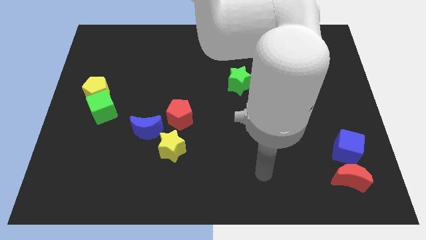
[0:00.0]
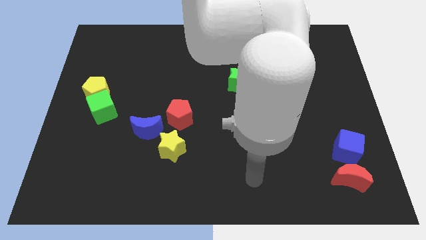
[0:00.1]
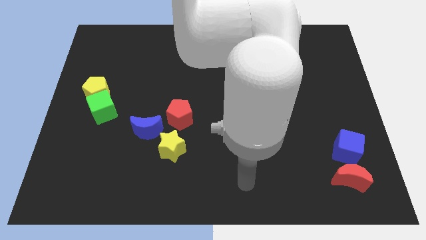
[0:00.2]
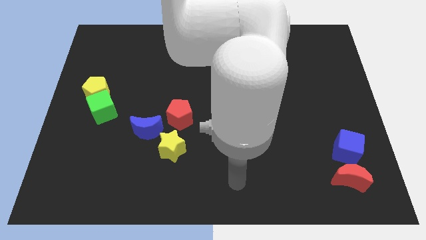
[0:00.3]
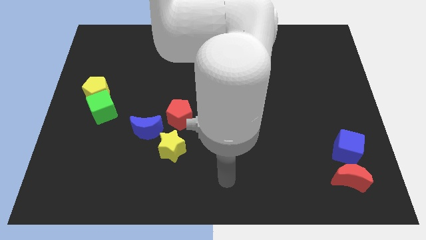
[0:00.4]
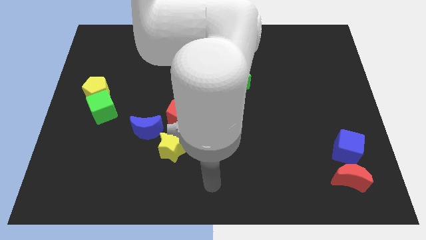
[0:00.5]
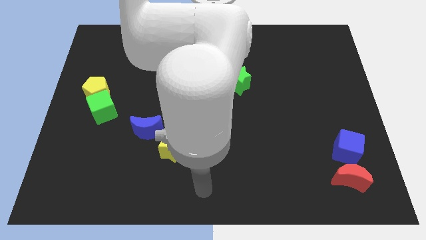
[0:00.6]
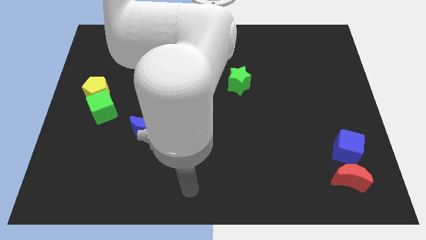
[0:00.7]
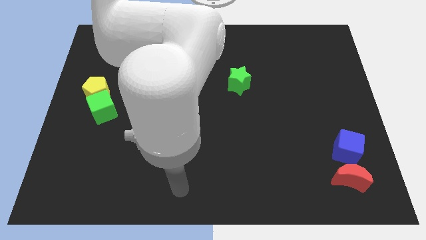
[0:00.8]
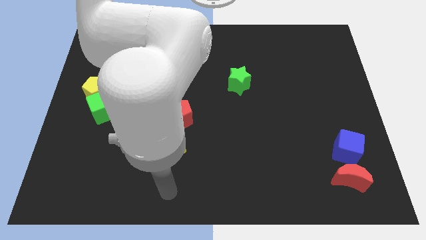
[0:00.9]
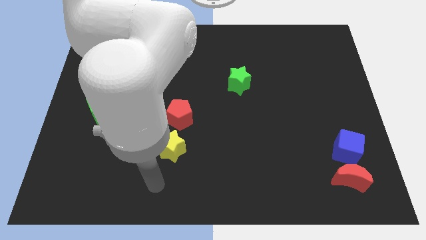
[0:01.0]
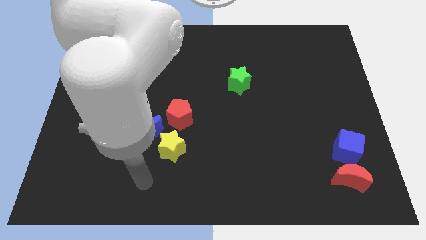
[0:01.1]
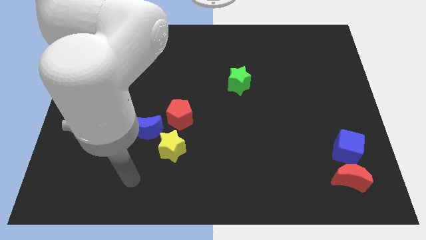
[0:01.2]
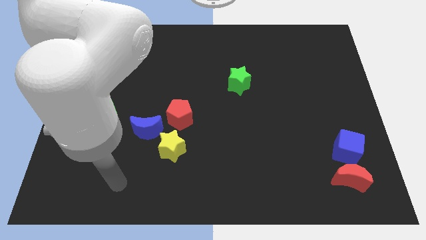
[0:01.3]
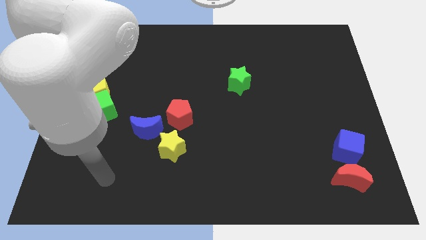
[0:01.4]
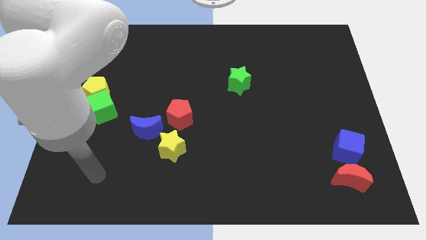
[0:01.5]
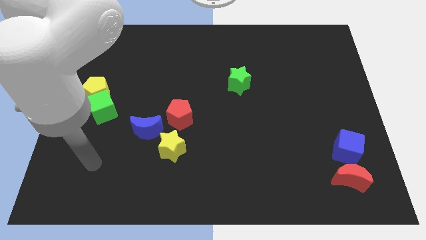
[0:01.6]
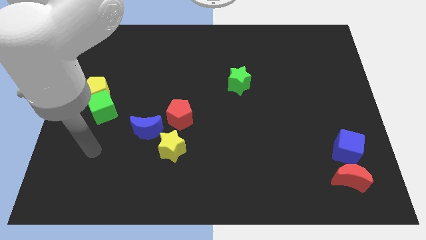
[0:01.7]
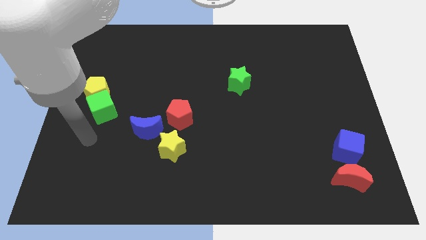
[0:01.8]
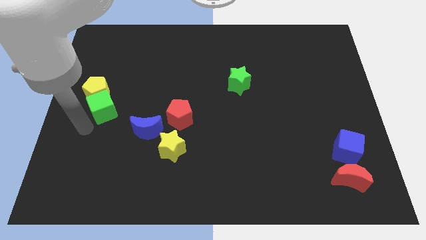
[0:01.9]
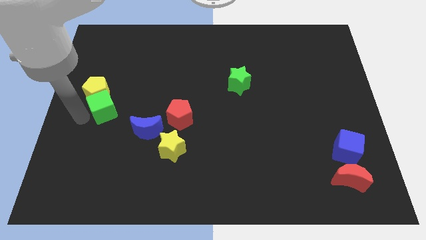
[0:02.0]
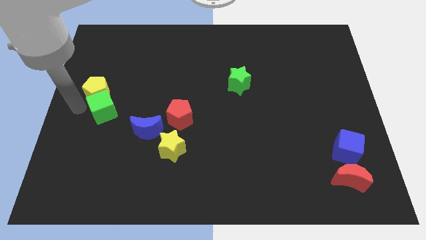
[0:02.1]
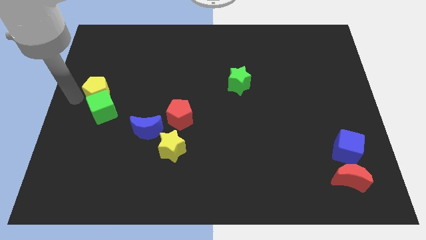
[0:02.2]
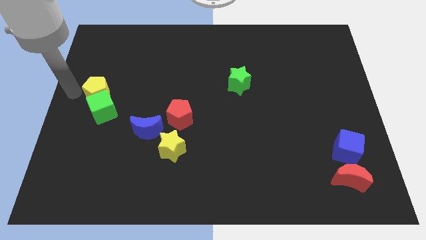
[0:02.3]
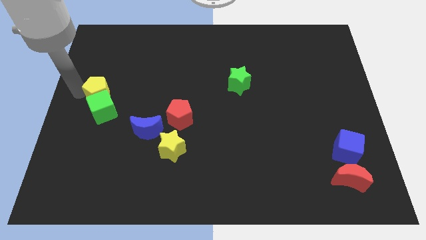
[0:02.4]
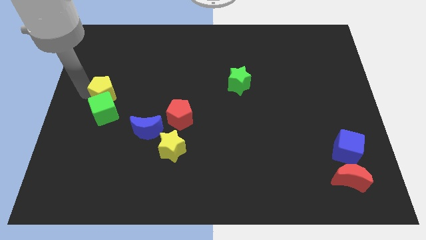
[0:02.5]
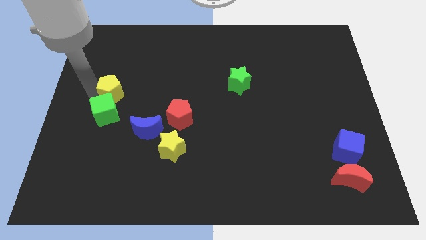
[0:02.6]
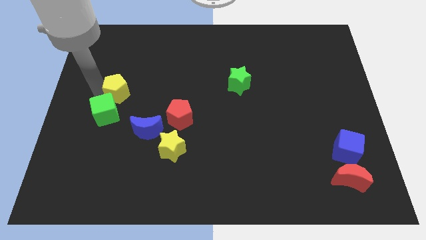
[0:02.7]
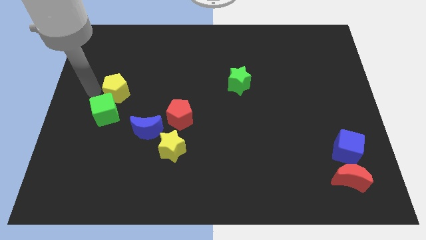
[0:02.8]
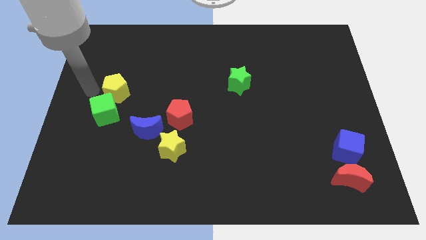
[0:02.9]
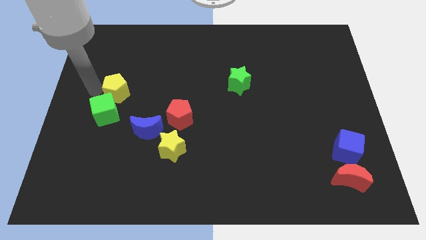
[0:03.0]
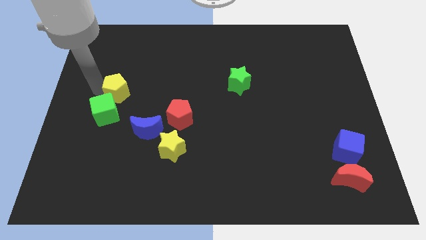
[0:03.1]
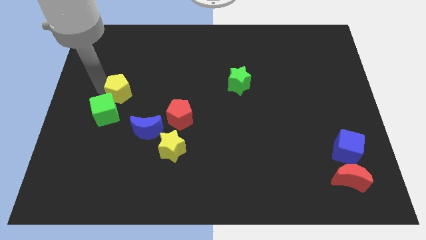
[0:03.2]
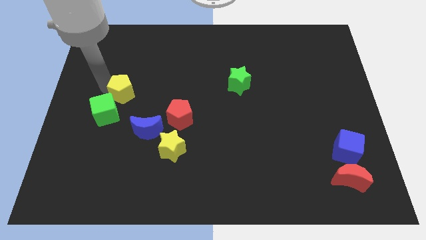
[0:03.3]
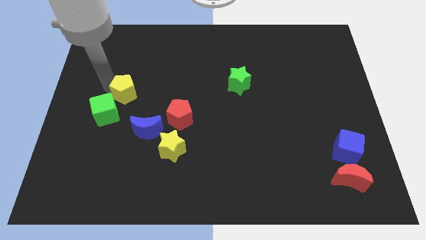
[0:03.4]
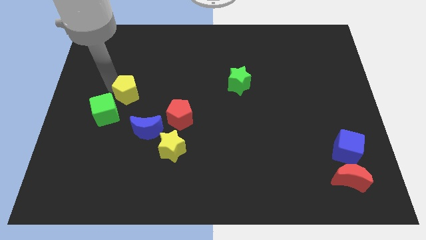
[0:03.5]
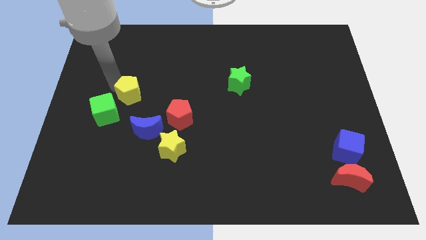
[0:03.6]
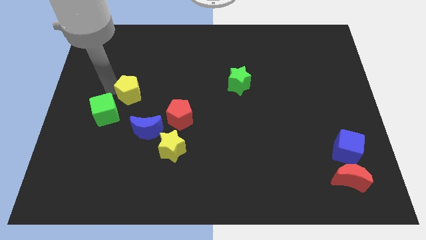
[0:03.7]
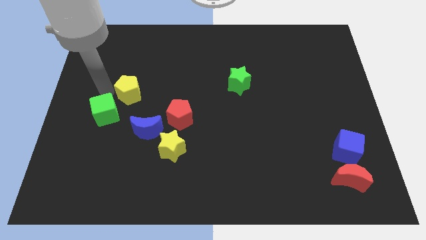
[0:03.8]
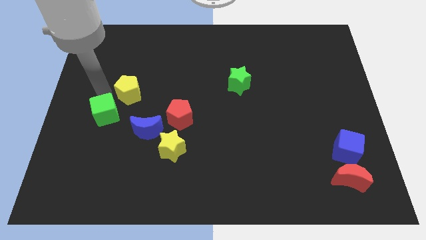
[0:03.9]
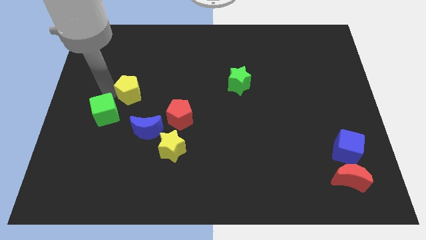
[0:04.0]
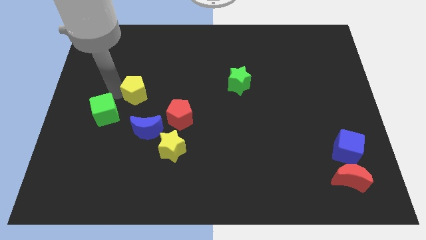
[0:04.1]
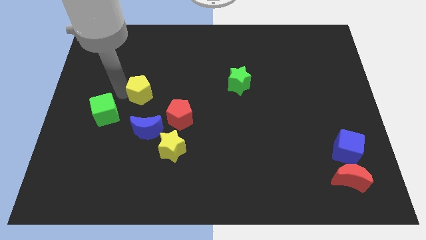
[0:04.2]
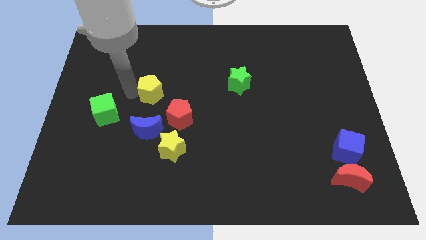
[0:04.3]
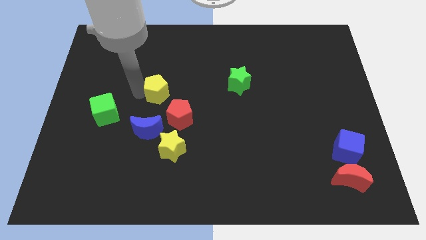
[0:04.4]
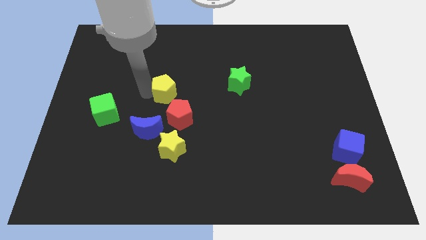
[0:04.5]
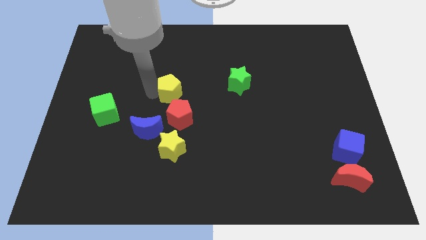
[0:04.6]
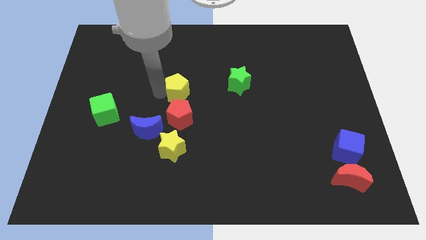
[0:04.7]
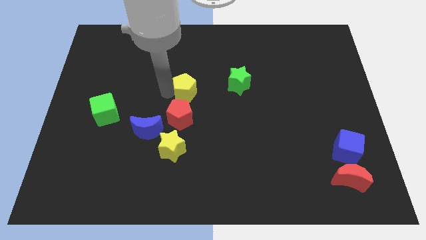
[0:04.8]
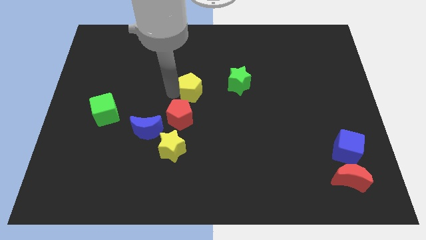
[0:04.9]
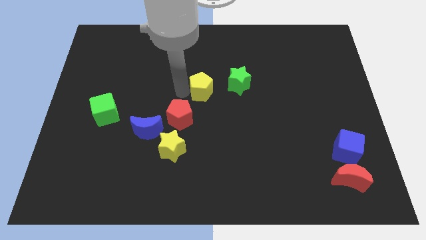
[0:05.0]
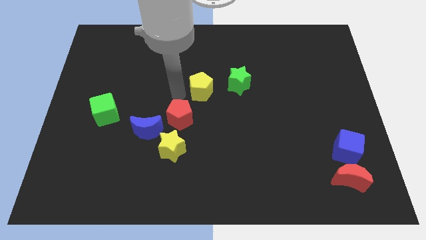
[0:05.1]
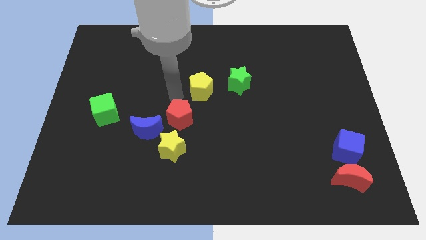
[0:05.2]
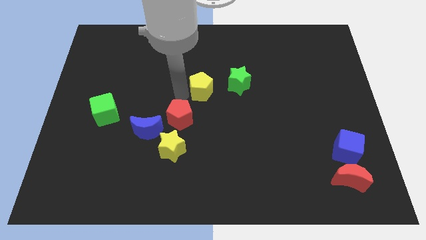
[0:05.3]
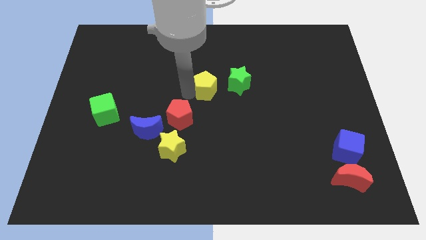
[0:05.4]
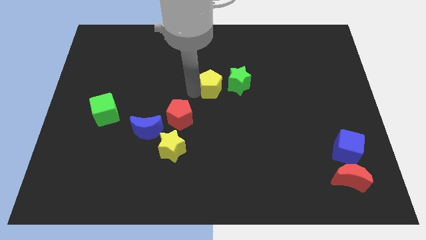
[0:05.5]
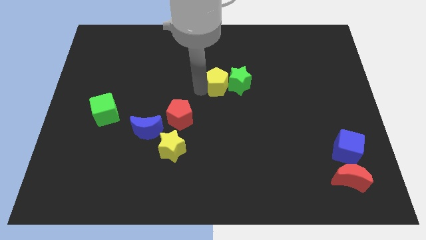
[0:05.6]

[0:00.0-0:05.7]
push the yellow pentagon towards the green star

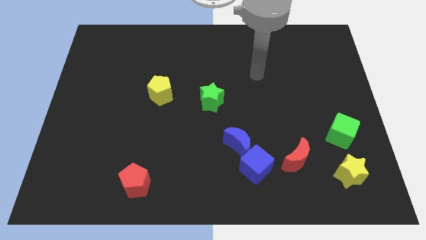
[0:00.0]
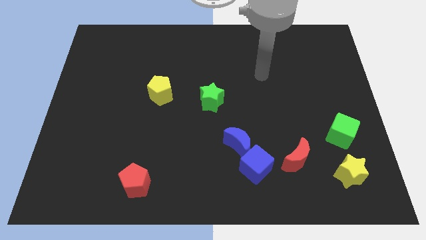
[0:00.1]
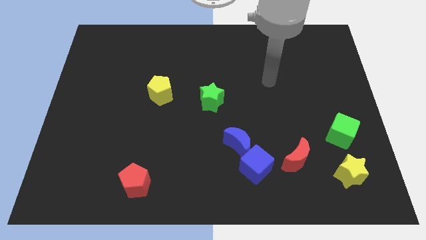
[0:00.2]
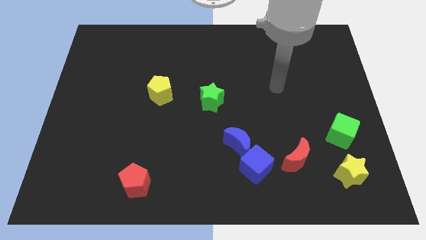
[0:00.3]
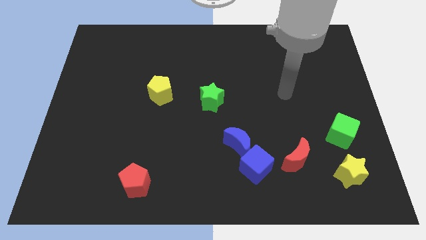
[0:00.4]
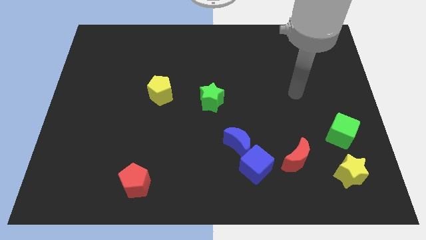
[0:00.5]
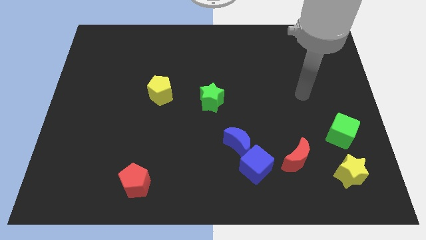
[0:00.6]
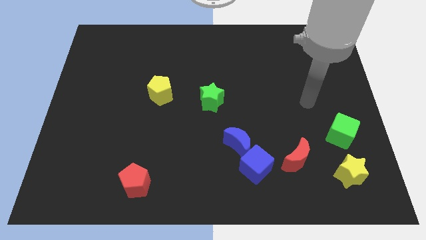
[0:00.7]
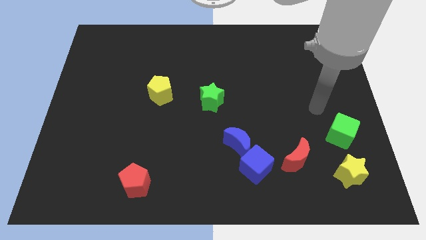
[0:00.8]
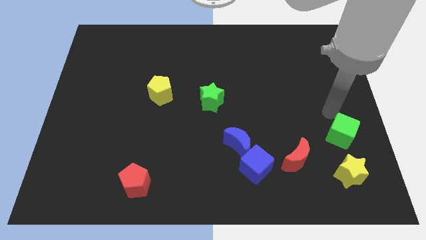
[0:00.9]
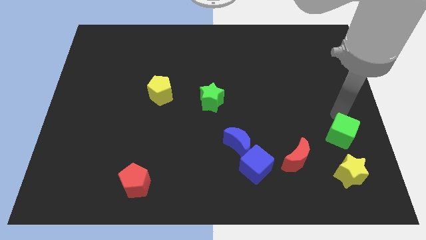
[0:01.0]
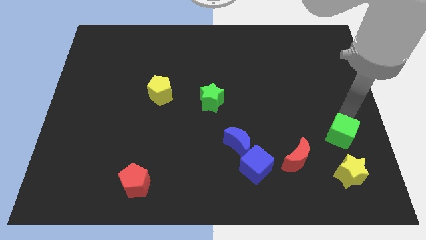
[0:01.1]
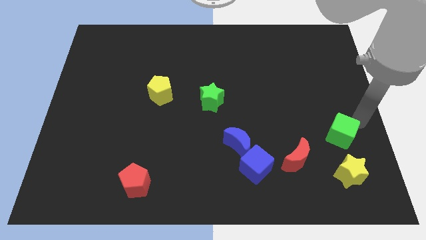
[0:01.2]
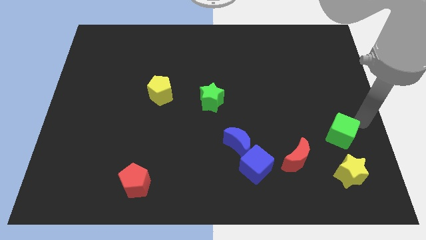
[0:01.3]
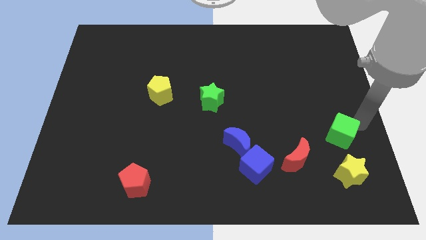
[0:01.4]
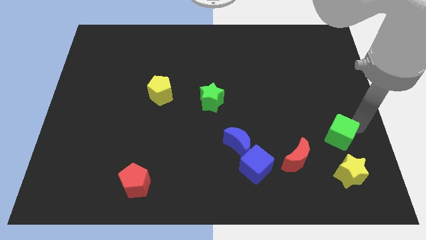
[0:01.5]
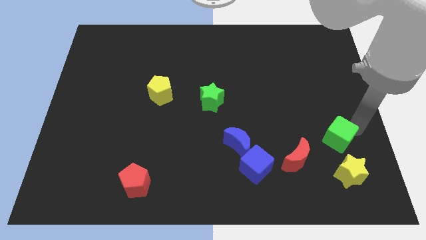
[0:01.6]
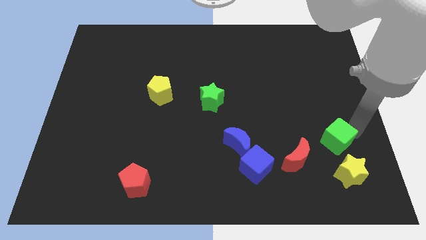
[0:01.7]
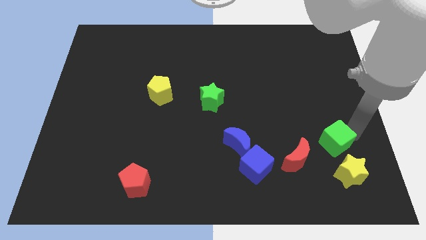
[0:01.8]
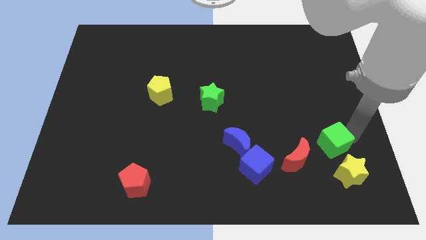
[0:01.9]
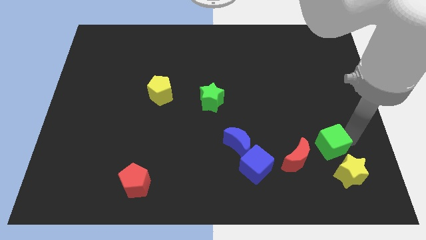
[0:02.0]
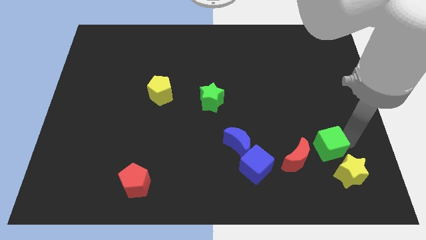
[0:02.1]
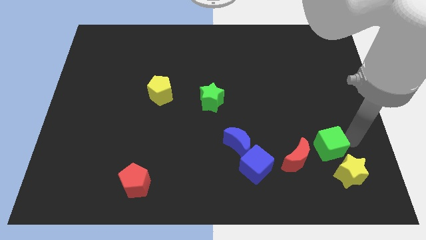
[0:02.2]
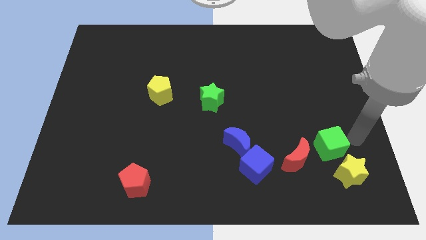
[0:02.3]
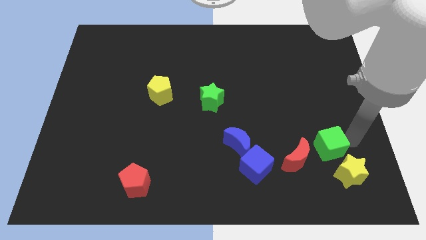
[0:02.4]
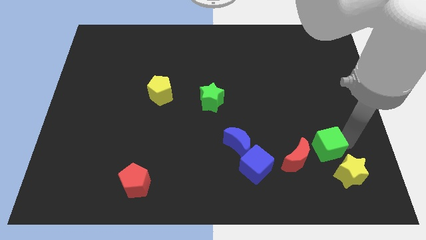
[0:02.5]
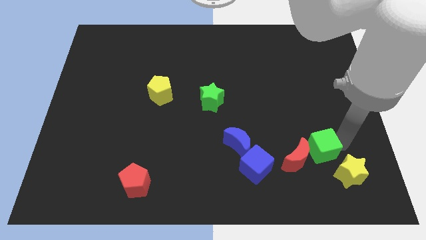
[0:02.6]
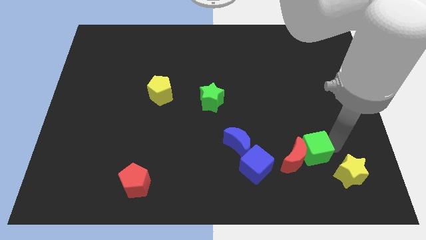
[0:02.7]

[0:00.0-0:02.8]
slide the green cube next to the red moon
